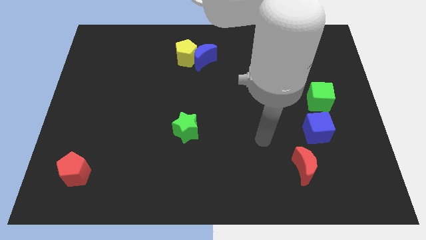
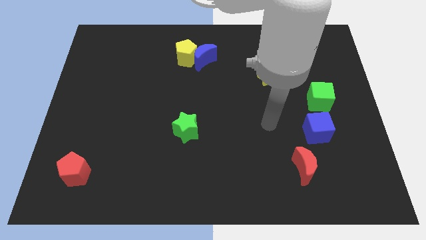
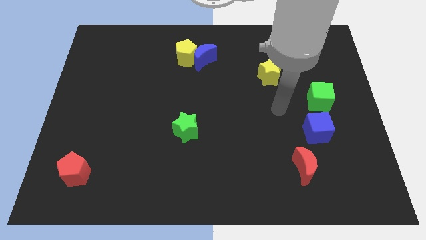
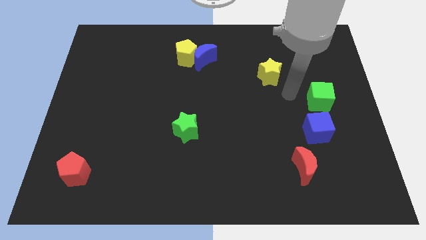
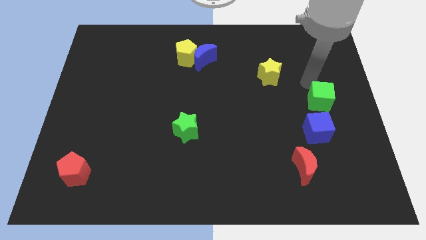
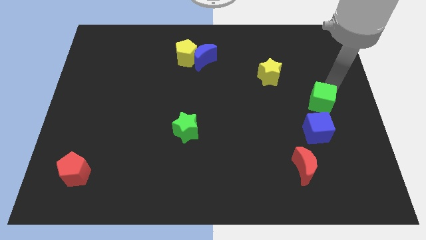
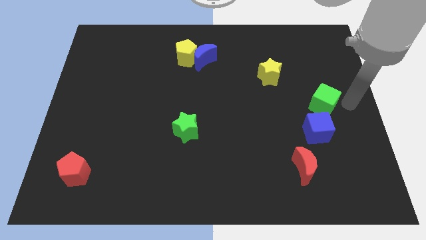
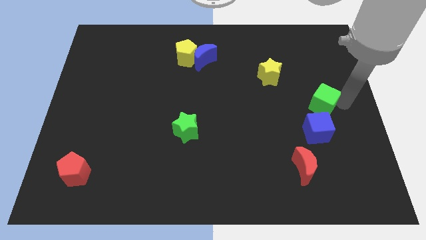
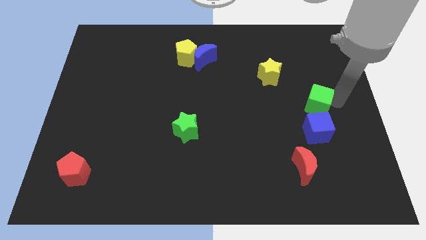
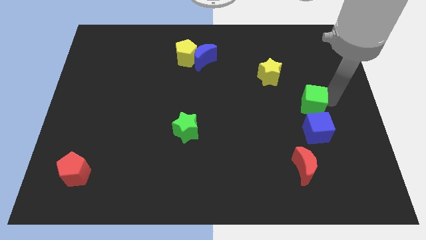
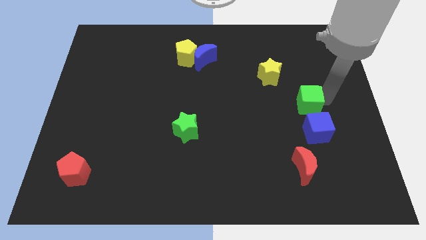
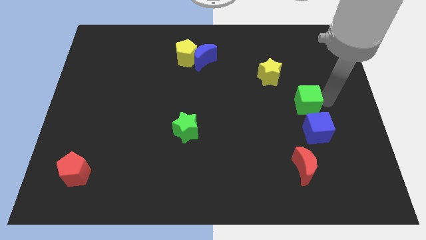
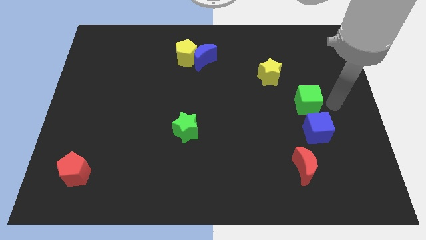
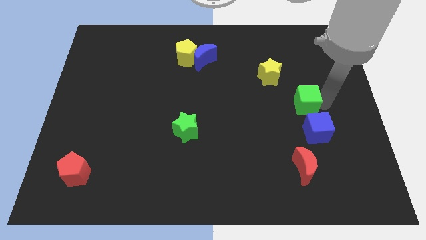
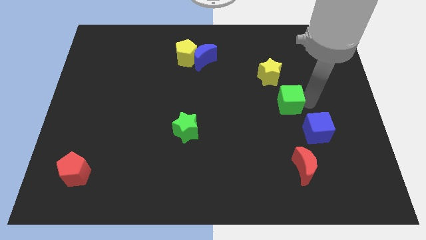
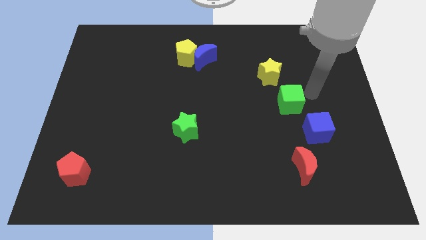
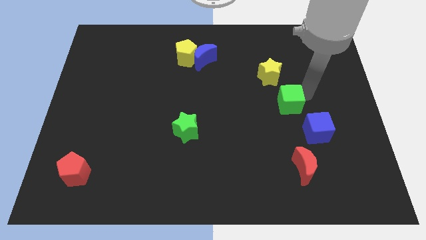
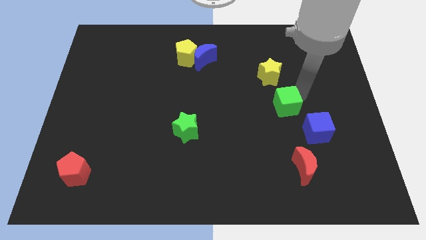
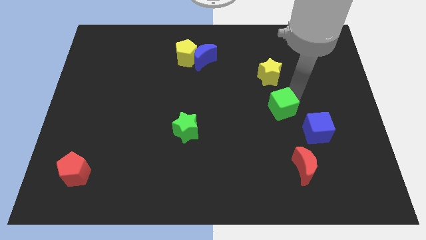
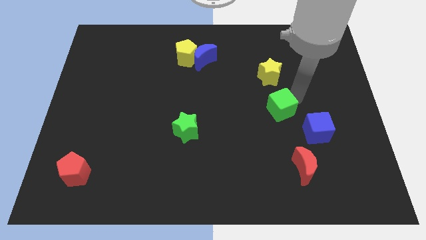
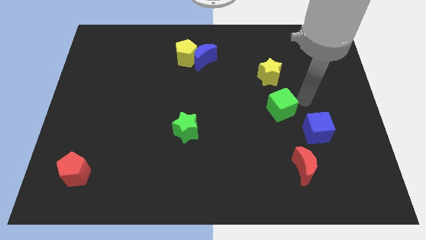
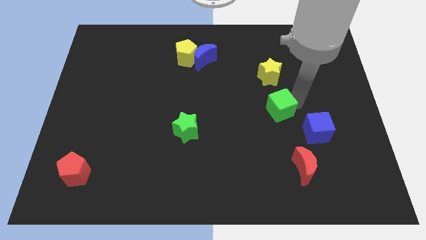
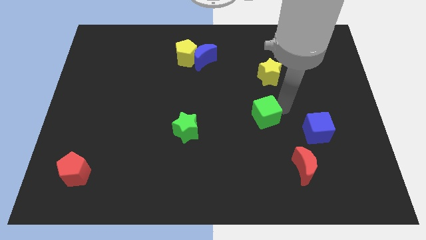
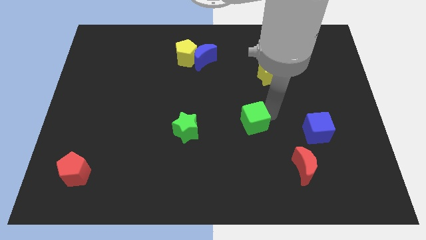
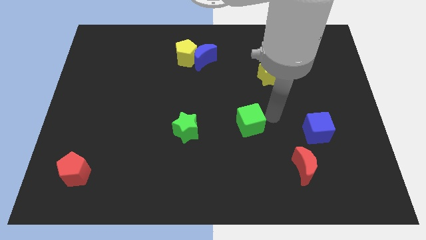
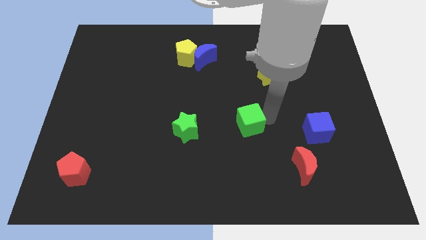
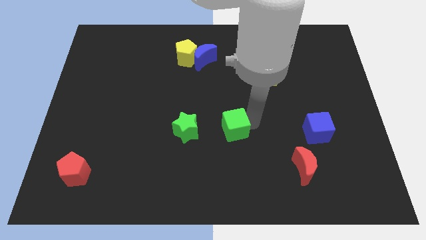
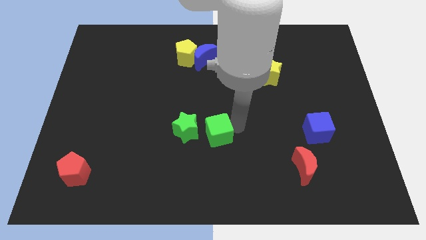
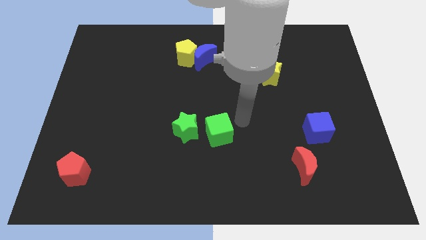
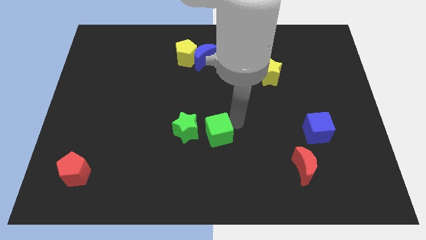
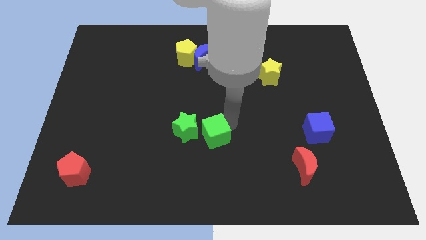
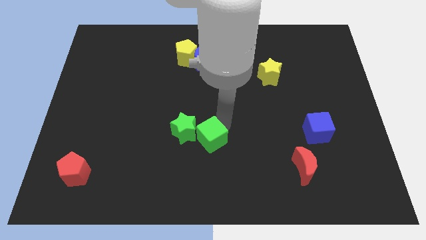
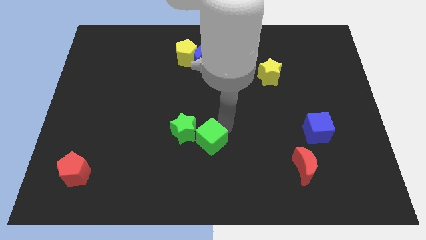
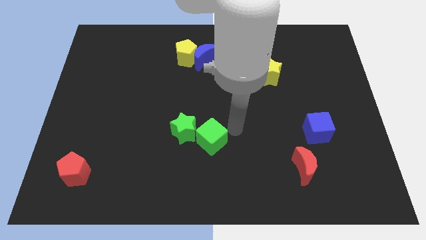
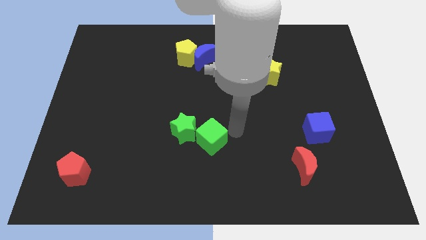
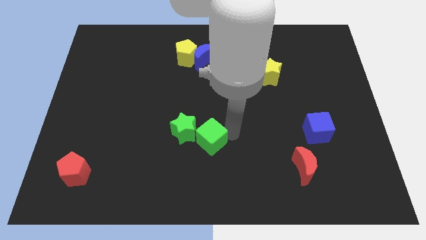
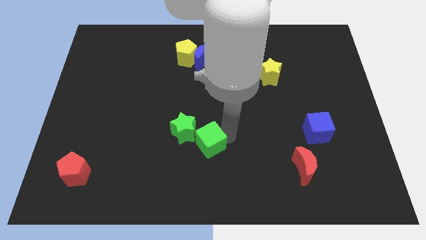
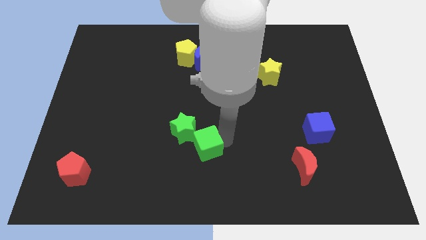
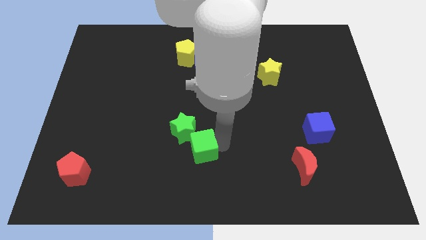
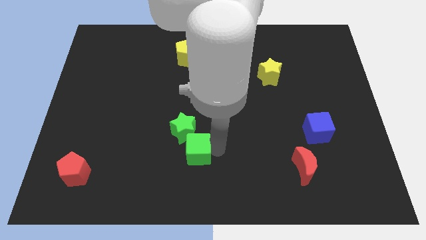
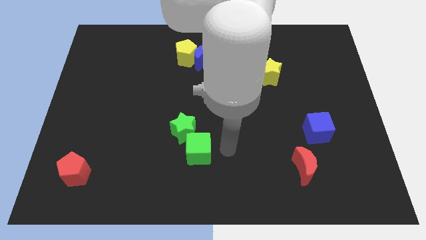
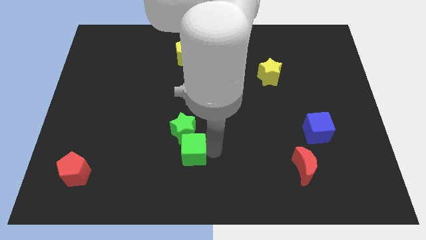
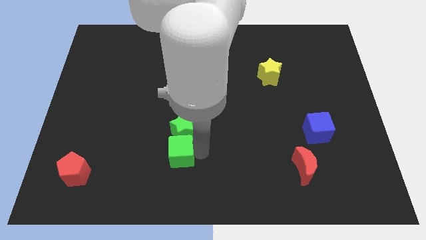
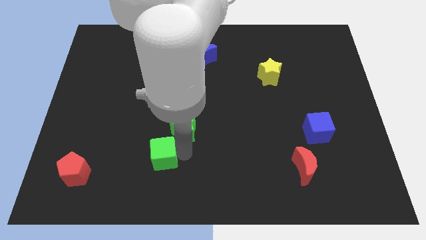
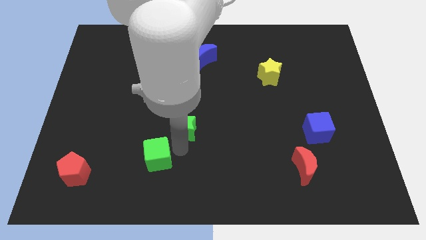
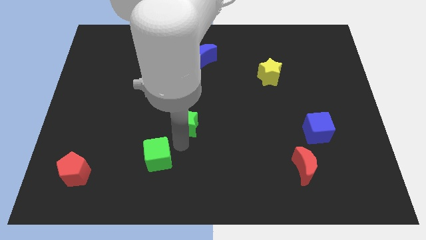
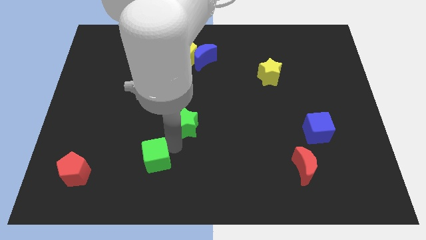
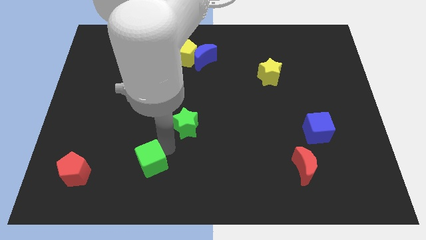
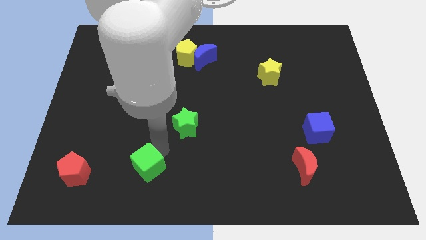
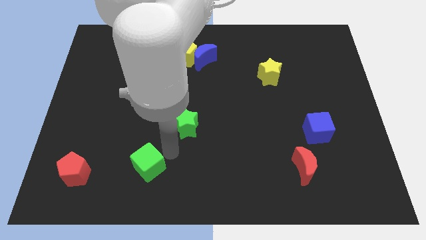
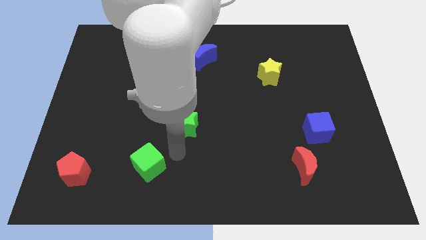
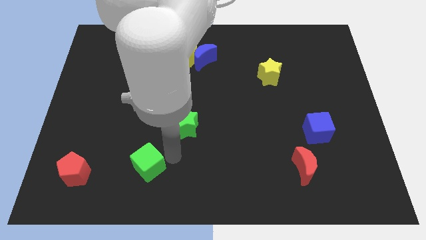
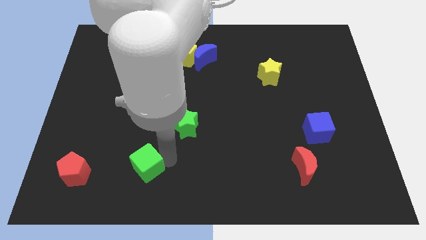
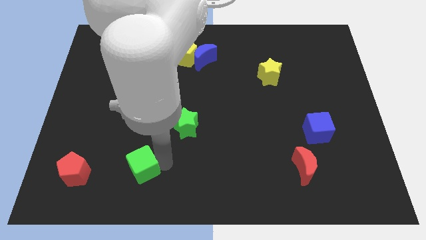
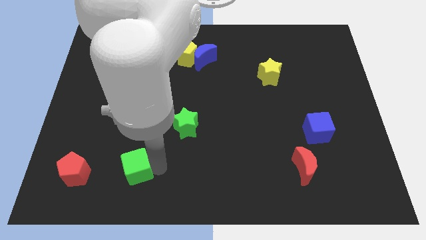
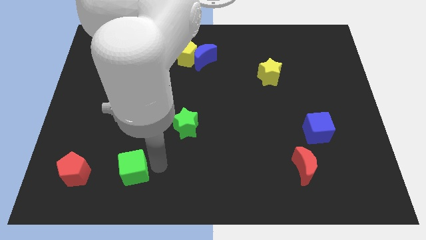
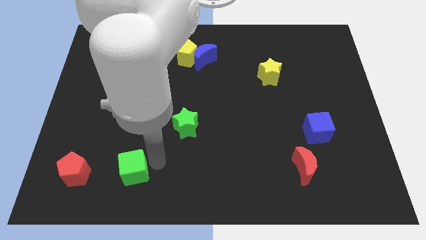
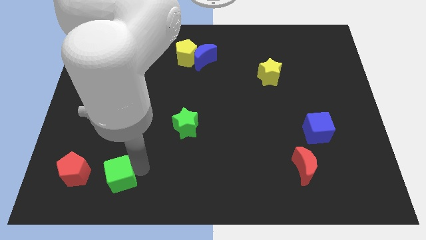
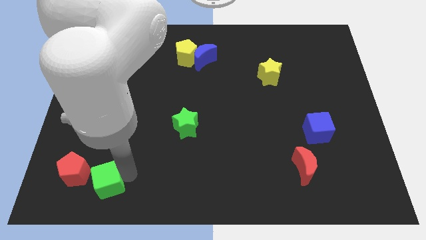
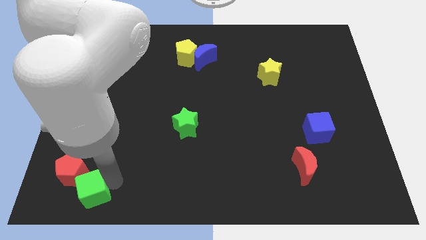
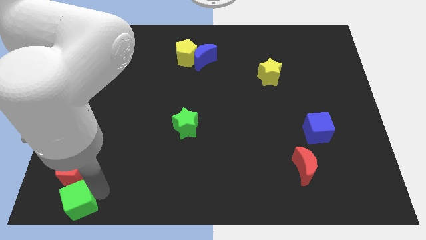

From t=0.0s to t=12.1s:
slide the green cube to the bottom left of the board
